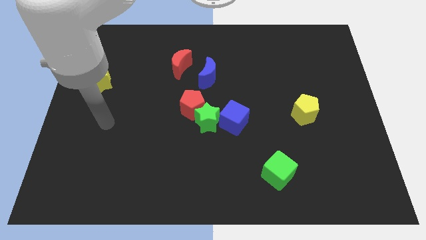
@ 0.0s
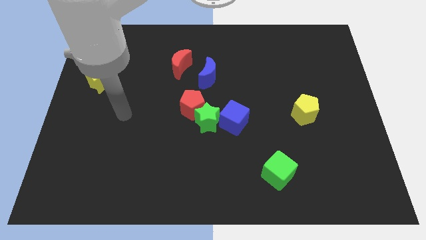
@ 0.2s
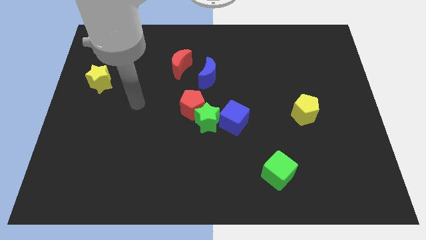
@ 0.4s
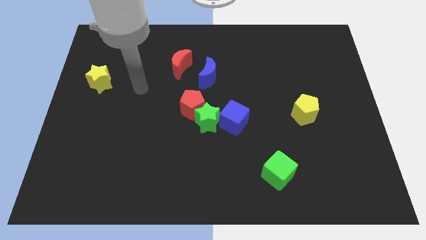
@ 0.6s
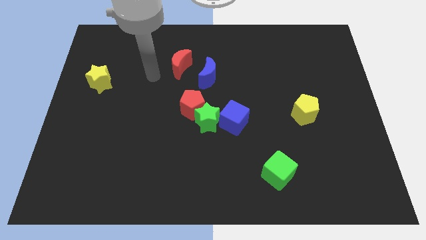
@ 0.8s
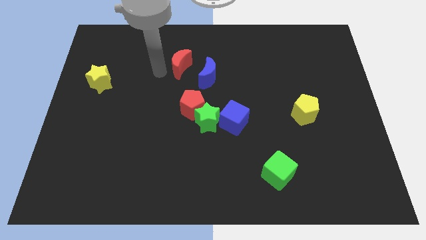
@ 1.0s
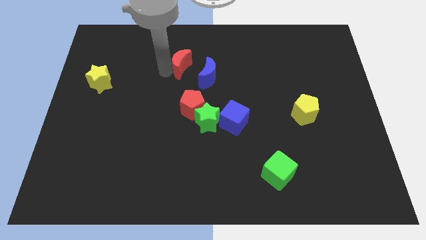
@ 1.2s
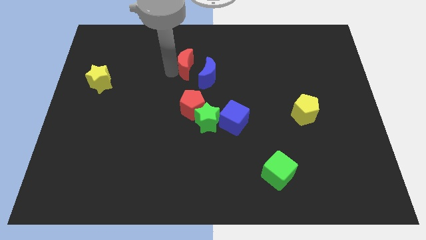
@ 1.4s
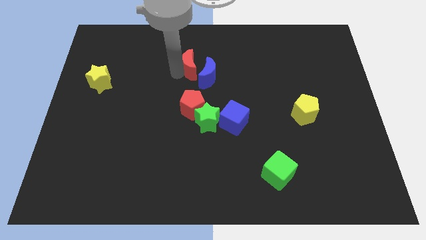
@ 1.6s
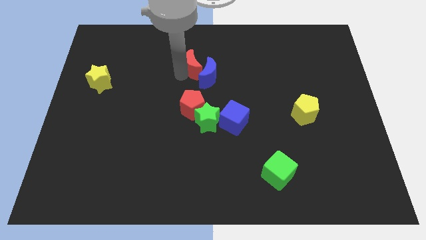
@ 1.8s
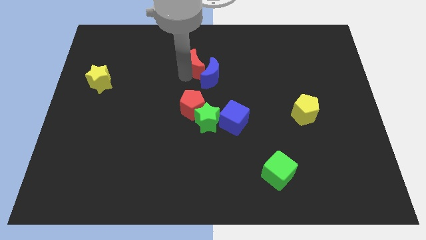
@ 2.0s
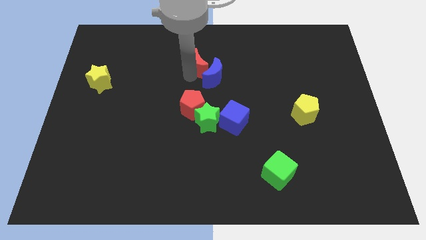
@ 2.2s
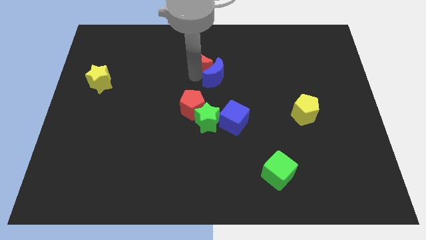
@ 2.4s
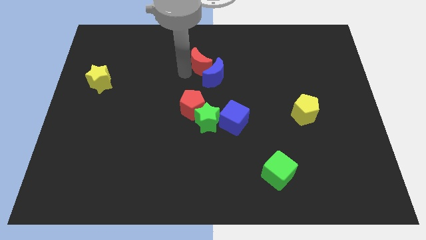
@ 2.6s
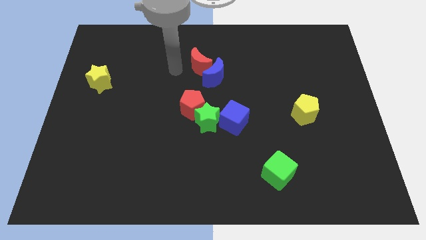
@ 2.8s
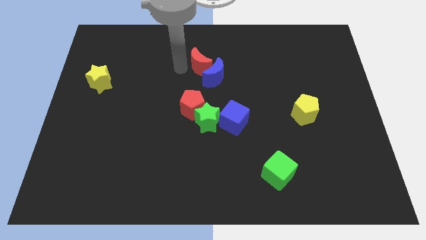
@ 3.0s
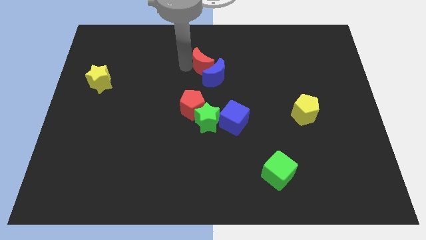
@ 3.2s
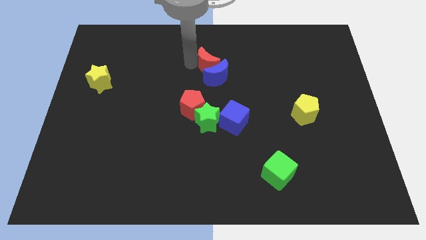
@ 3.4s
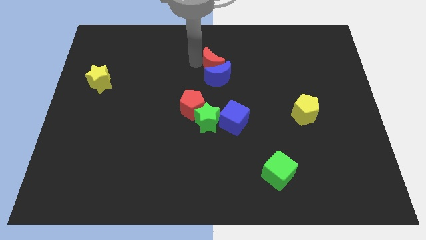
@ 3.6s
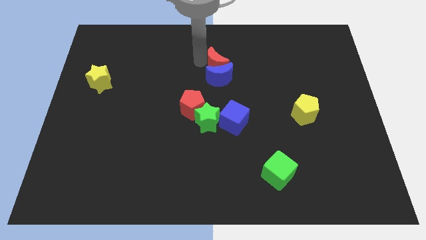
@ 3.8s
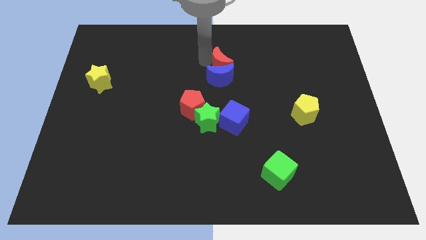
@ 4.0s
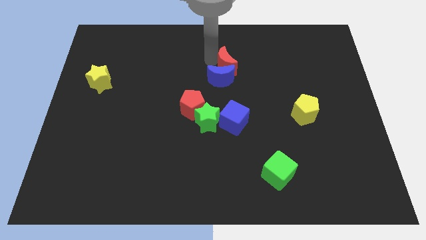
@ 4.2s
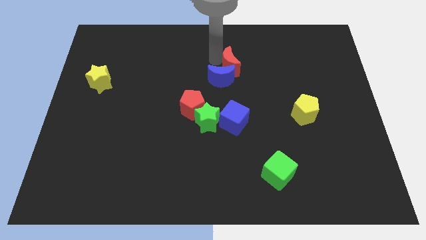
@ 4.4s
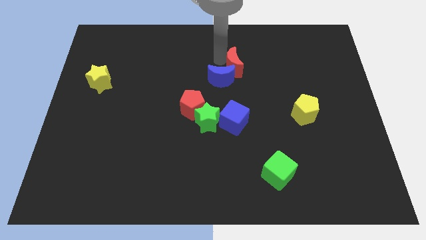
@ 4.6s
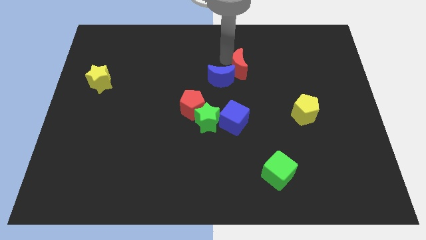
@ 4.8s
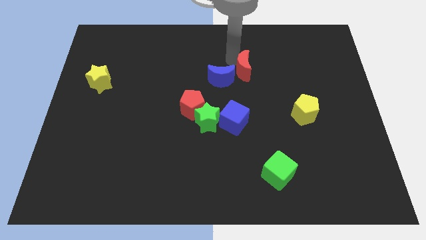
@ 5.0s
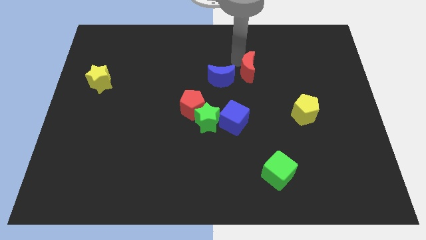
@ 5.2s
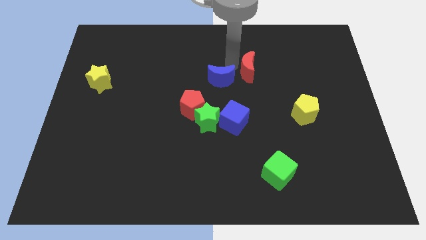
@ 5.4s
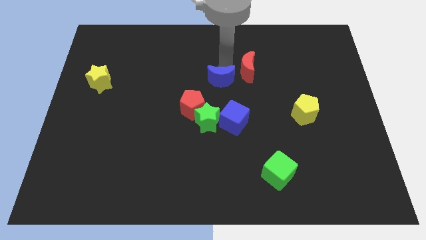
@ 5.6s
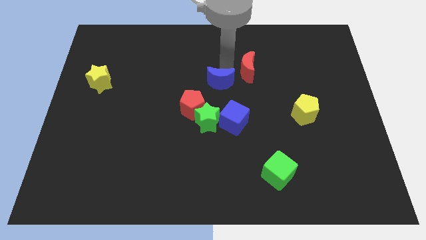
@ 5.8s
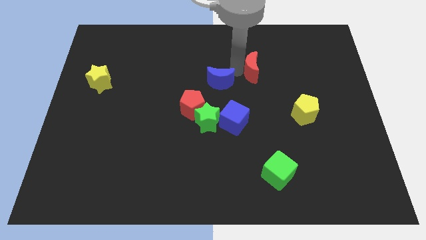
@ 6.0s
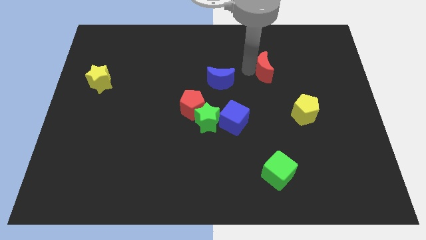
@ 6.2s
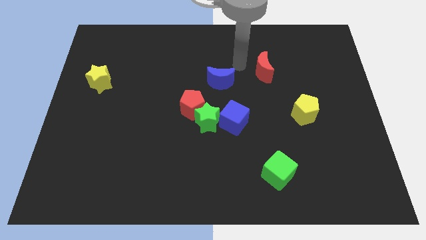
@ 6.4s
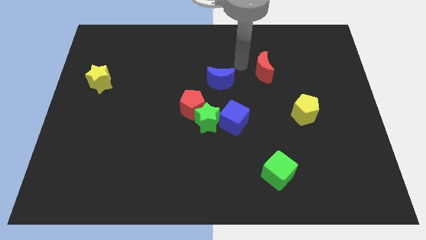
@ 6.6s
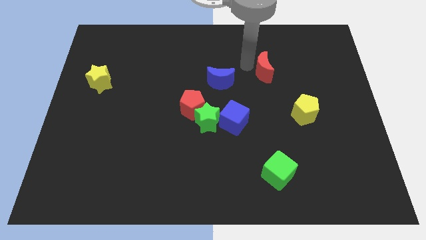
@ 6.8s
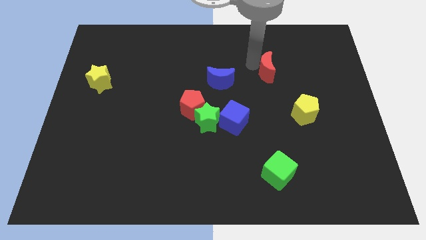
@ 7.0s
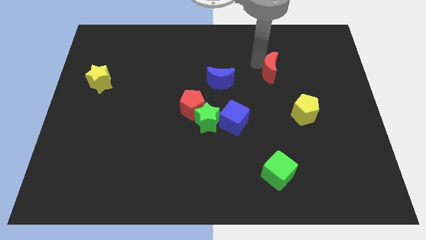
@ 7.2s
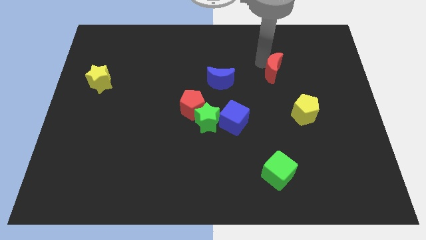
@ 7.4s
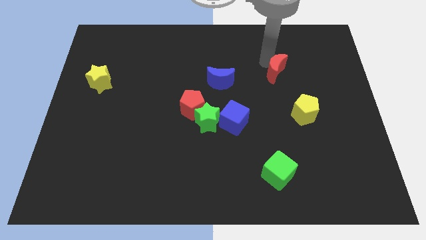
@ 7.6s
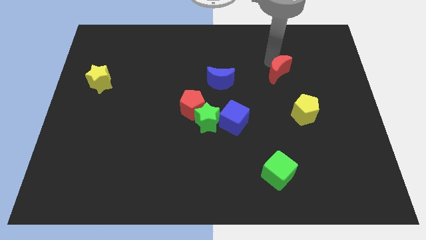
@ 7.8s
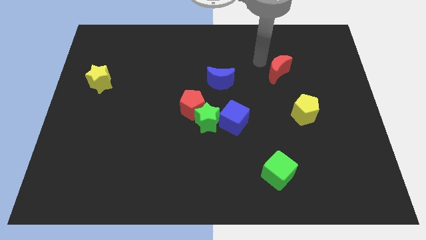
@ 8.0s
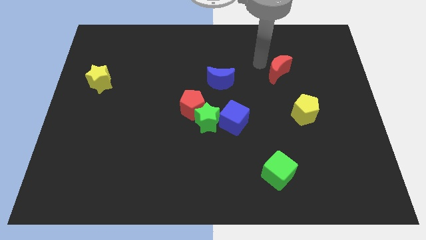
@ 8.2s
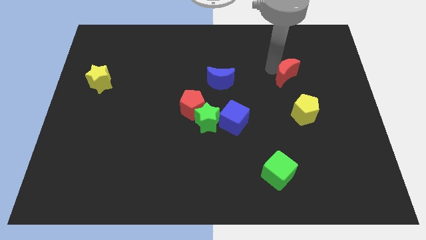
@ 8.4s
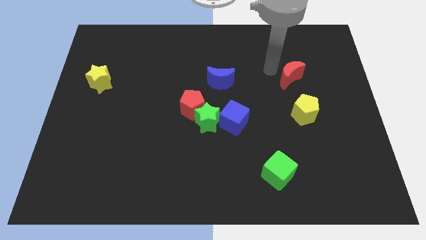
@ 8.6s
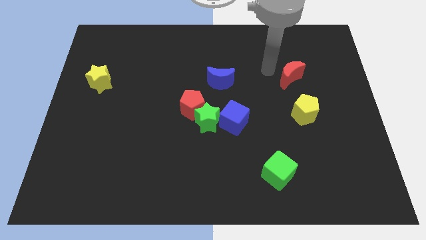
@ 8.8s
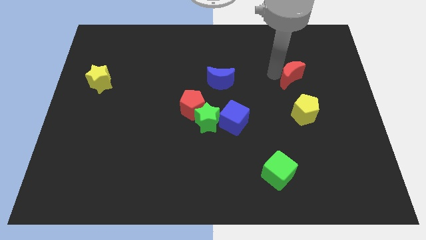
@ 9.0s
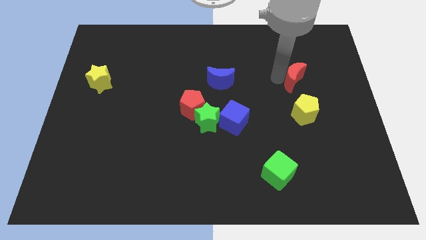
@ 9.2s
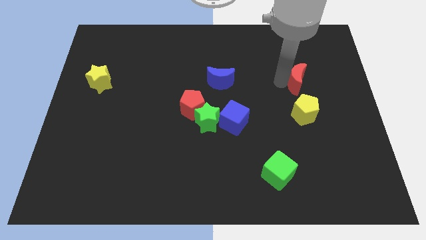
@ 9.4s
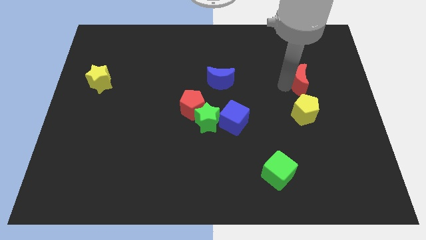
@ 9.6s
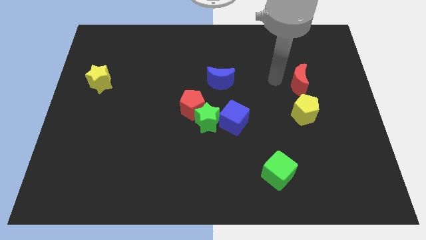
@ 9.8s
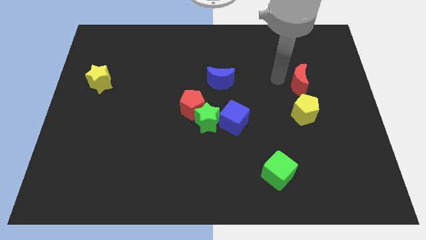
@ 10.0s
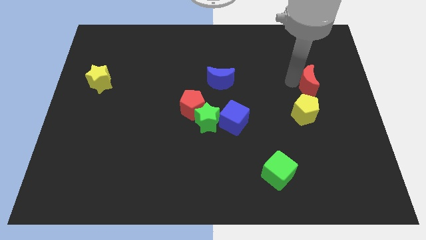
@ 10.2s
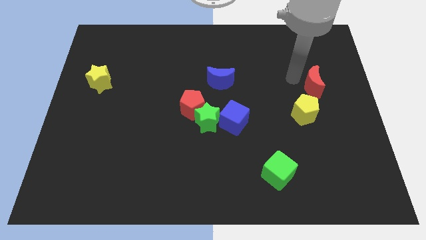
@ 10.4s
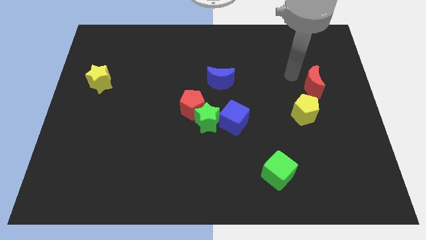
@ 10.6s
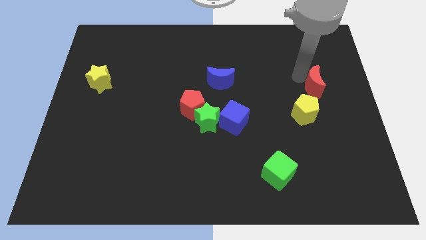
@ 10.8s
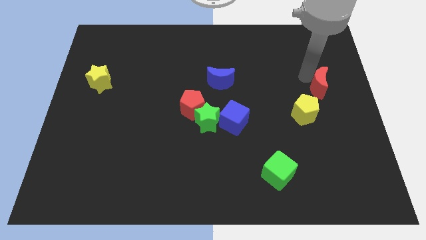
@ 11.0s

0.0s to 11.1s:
put the red moon to the right side of the board

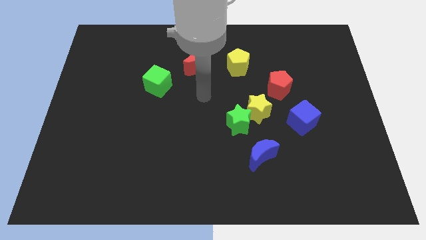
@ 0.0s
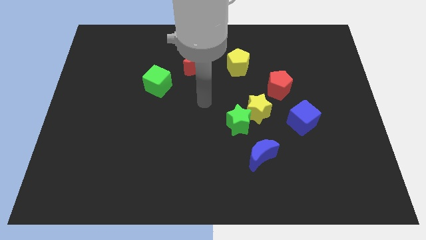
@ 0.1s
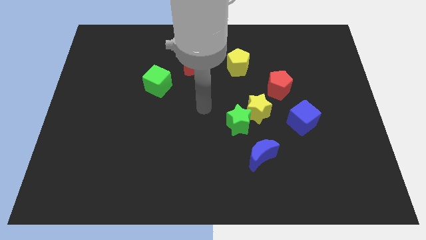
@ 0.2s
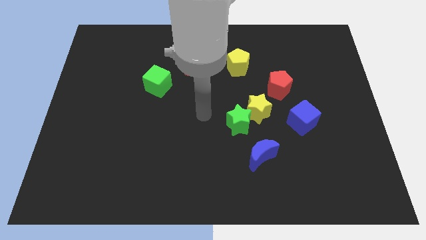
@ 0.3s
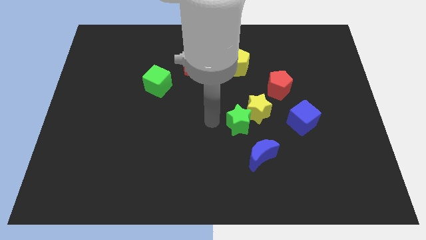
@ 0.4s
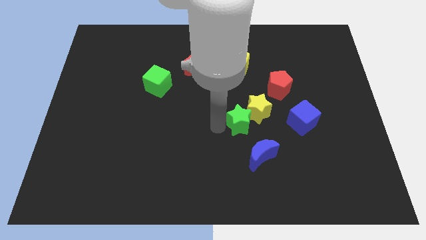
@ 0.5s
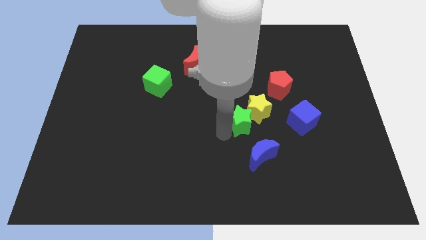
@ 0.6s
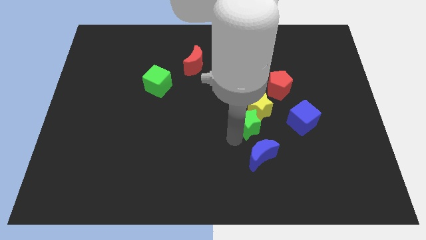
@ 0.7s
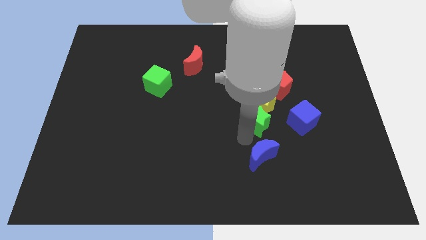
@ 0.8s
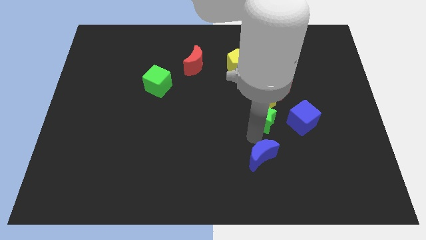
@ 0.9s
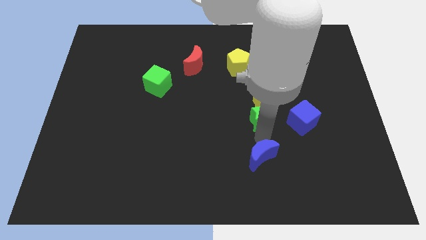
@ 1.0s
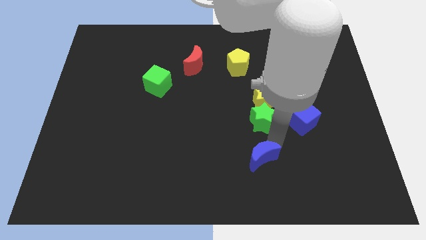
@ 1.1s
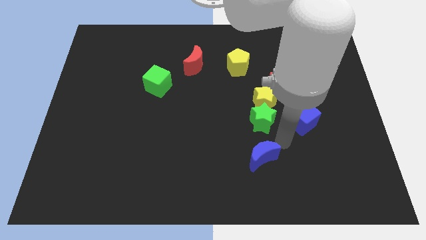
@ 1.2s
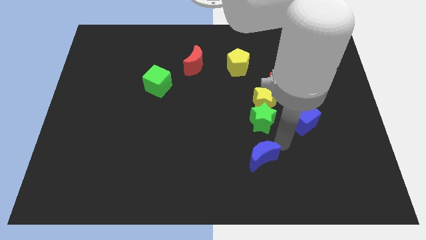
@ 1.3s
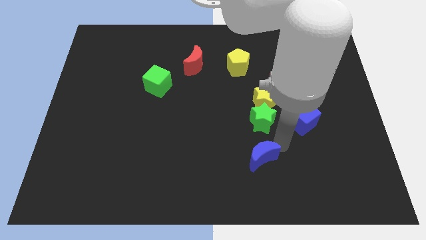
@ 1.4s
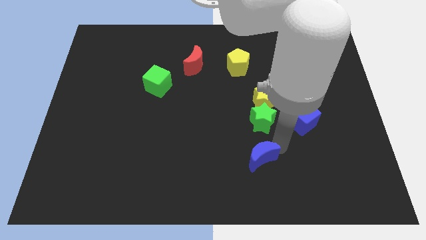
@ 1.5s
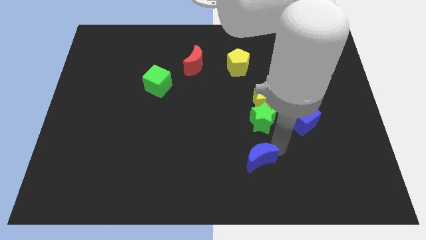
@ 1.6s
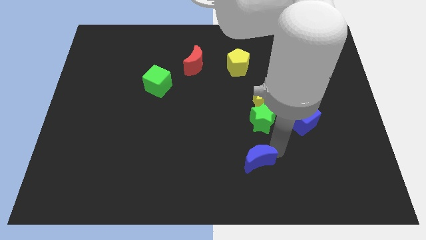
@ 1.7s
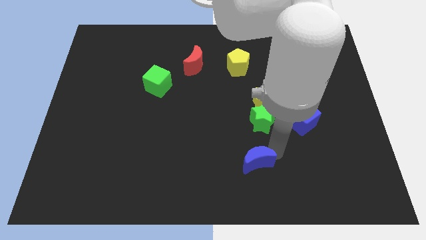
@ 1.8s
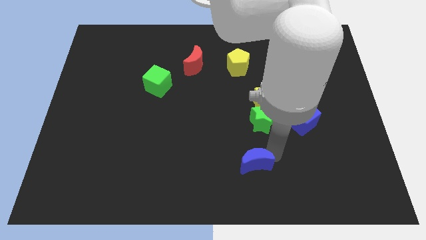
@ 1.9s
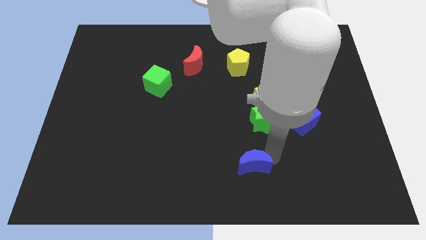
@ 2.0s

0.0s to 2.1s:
slide the blue moon to the bottom side
